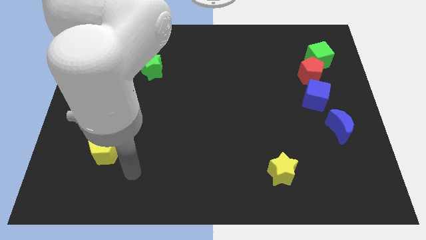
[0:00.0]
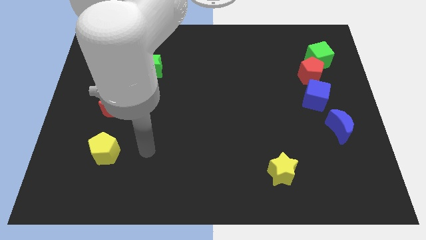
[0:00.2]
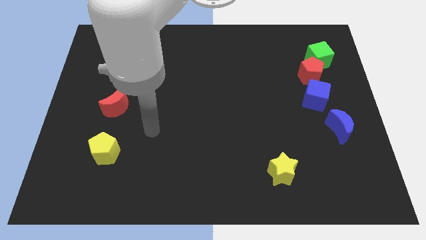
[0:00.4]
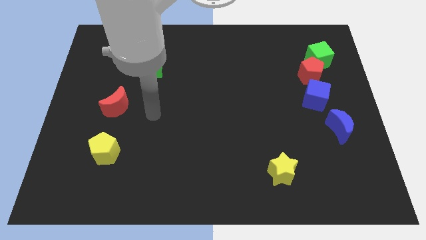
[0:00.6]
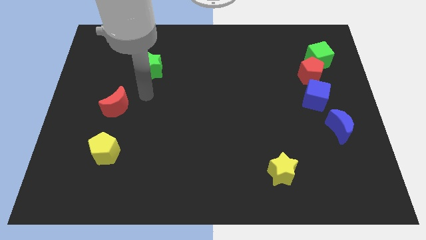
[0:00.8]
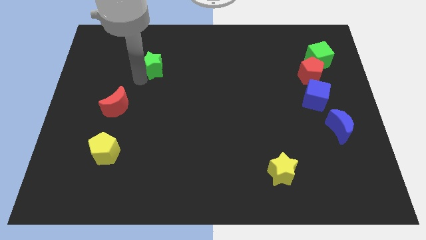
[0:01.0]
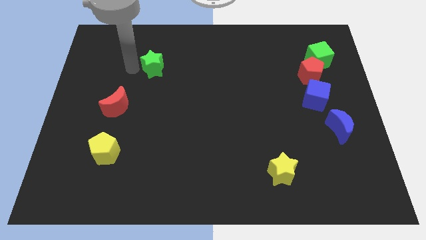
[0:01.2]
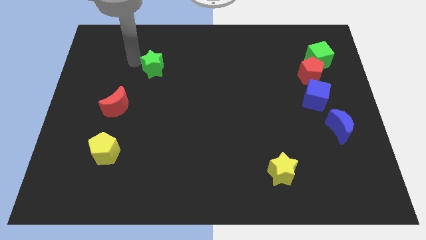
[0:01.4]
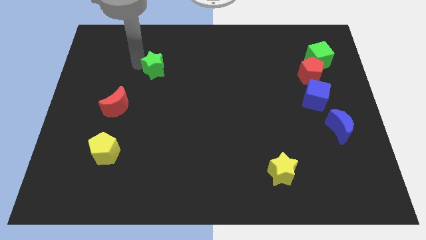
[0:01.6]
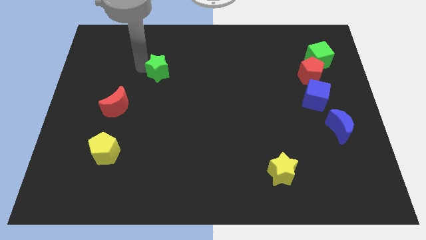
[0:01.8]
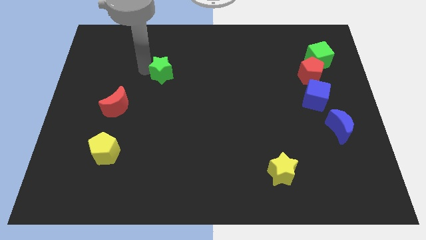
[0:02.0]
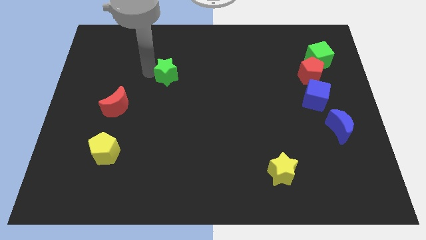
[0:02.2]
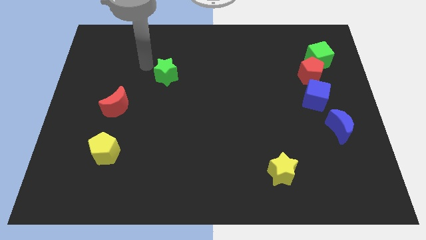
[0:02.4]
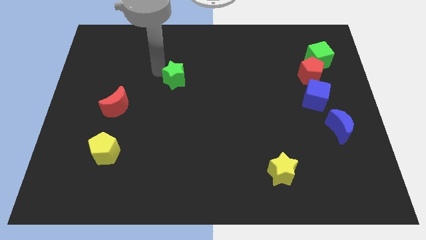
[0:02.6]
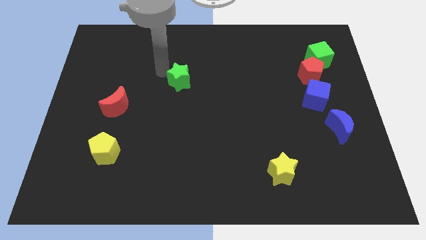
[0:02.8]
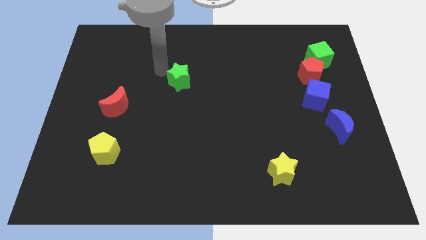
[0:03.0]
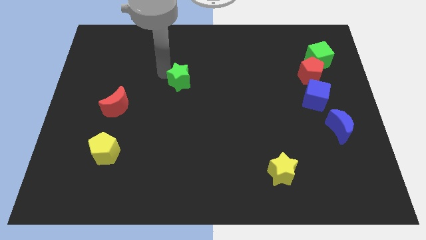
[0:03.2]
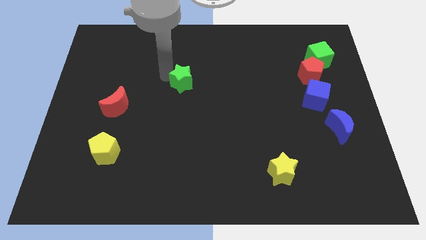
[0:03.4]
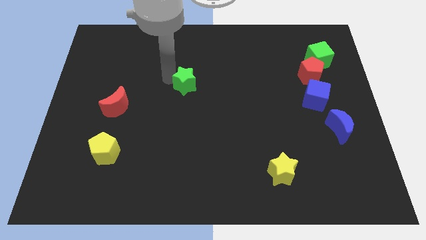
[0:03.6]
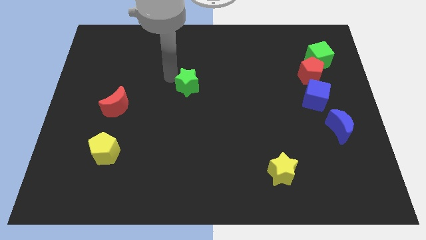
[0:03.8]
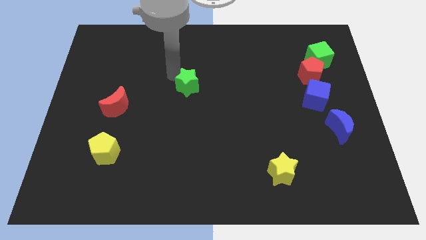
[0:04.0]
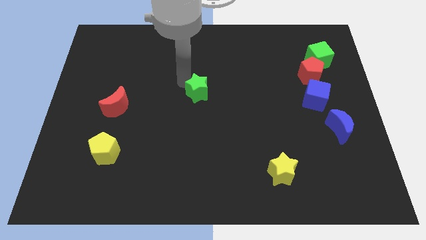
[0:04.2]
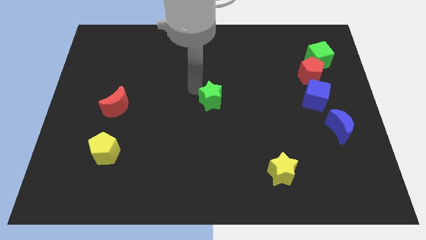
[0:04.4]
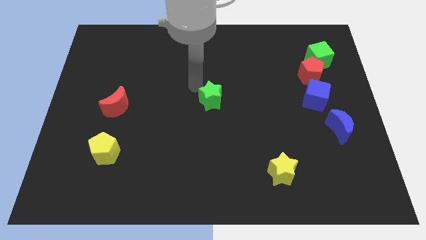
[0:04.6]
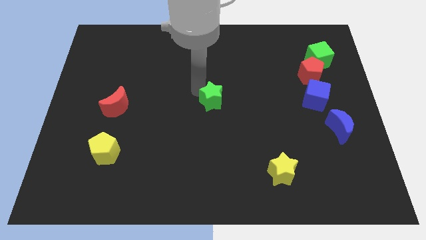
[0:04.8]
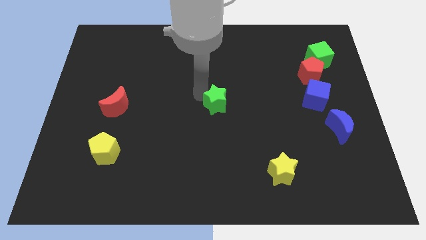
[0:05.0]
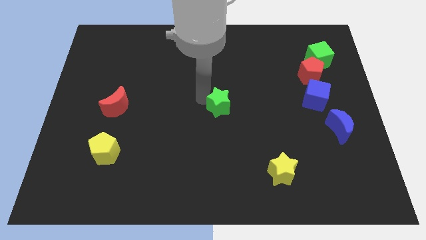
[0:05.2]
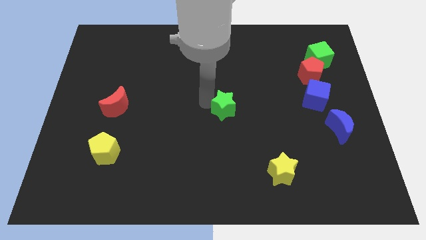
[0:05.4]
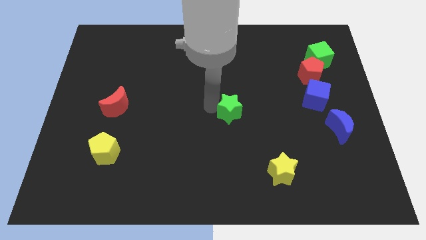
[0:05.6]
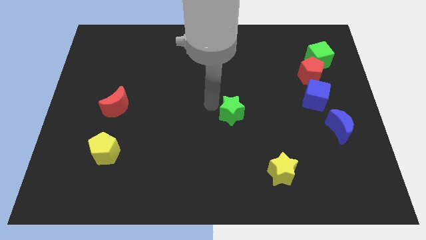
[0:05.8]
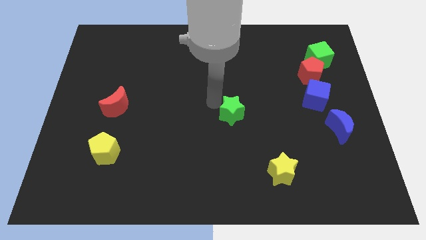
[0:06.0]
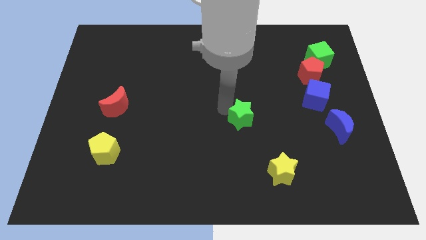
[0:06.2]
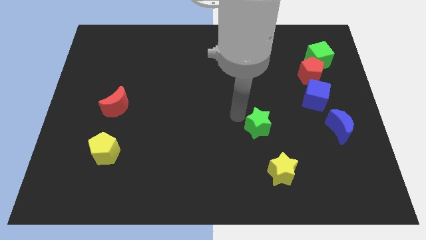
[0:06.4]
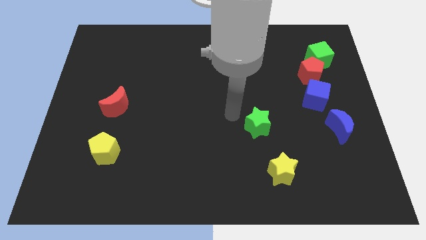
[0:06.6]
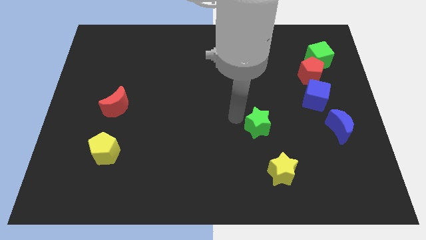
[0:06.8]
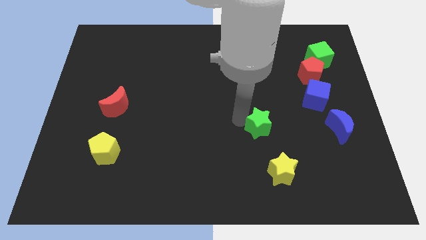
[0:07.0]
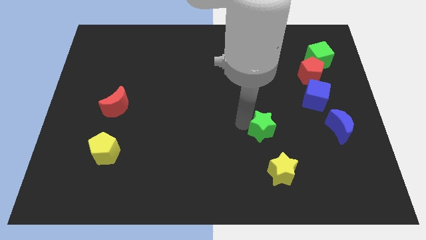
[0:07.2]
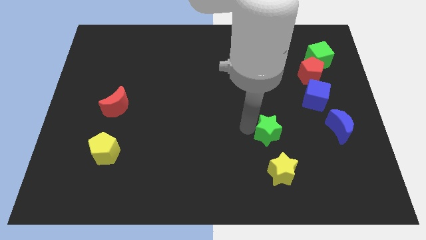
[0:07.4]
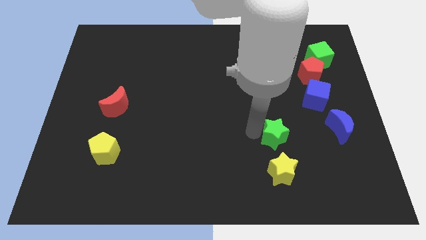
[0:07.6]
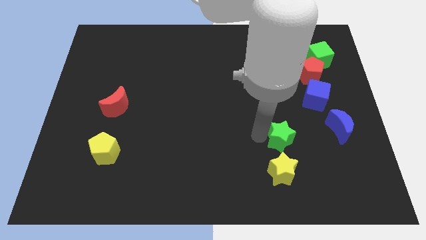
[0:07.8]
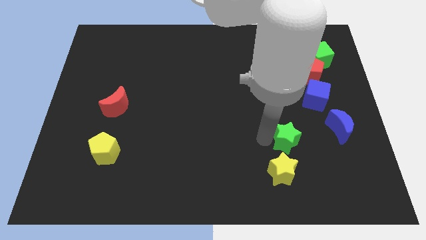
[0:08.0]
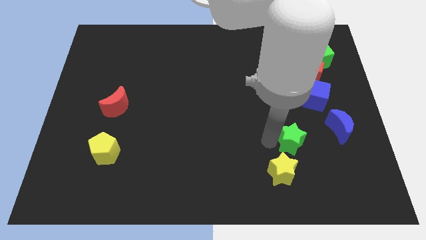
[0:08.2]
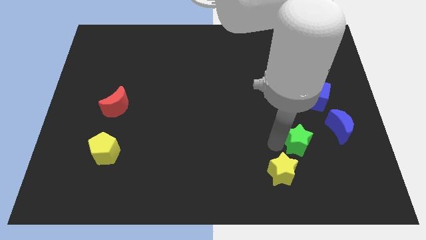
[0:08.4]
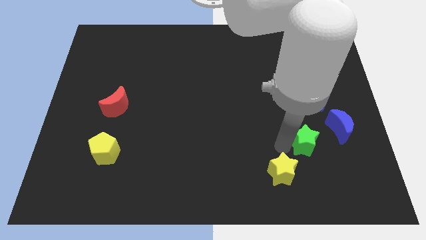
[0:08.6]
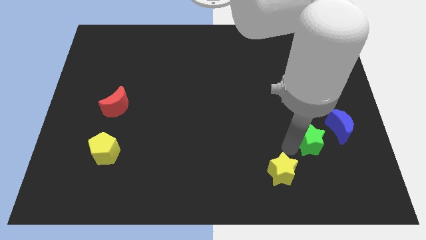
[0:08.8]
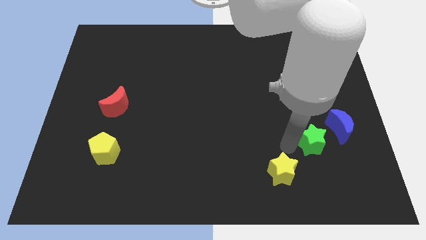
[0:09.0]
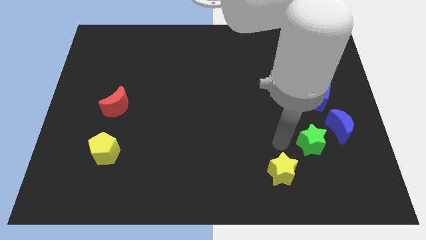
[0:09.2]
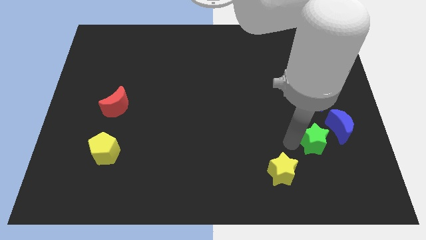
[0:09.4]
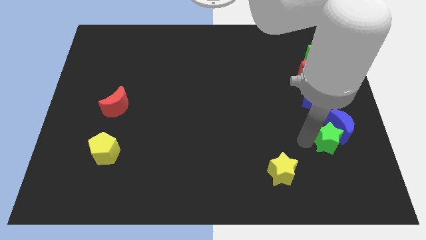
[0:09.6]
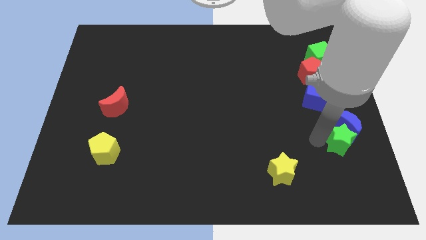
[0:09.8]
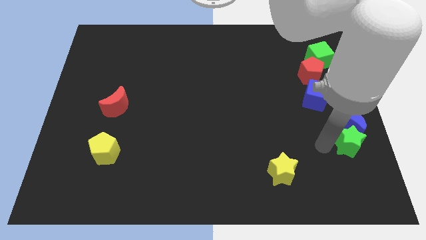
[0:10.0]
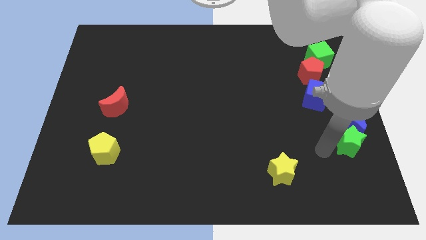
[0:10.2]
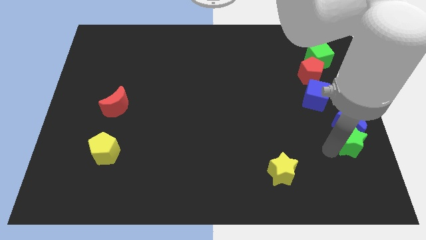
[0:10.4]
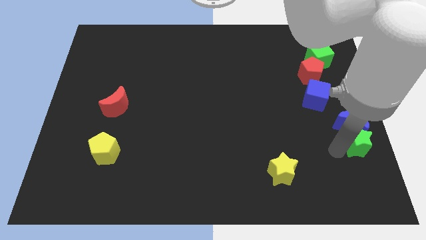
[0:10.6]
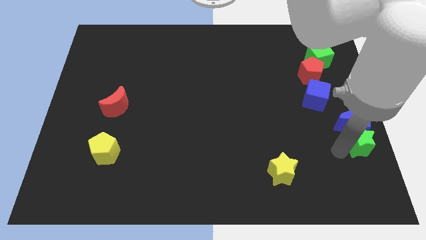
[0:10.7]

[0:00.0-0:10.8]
move the green star to the center right
